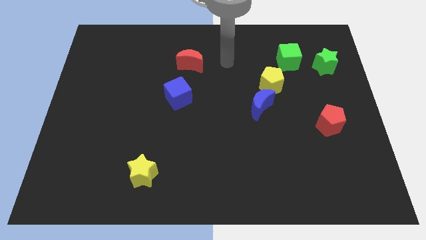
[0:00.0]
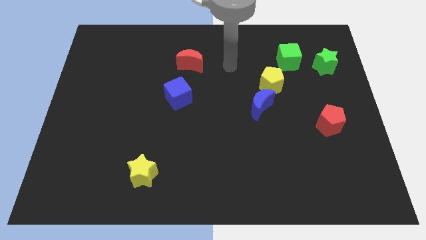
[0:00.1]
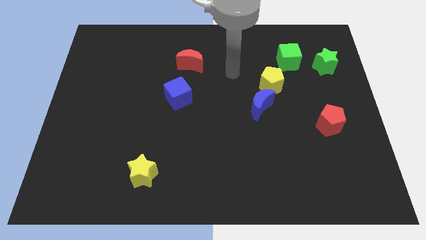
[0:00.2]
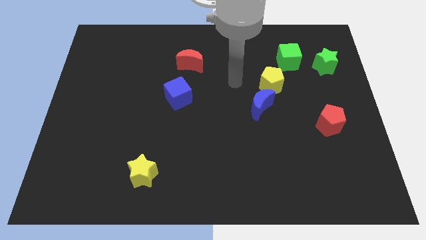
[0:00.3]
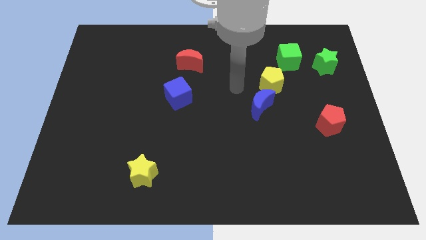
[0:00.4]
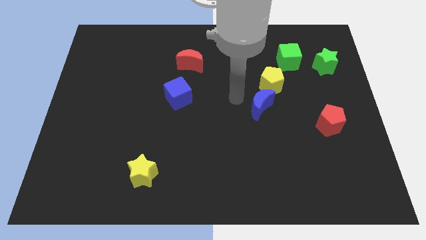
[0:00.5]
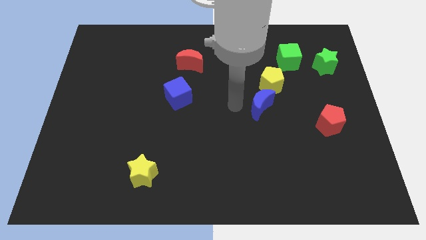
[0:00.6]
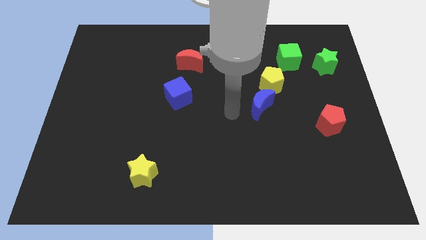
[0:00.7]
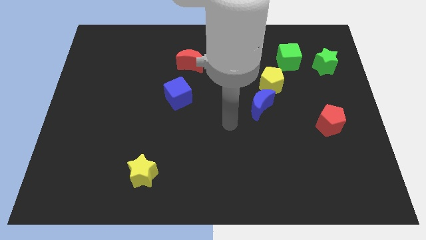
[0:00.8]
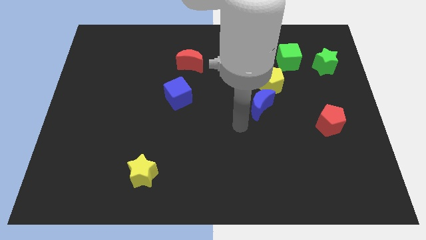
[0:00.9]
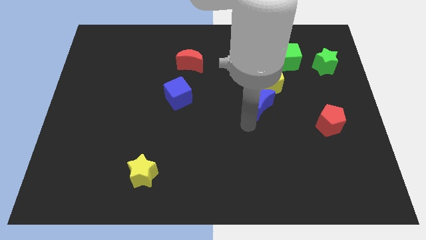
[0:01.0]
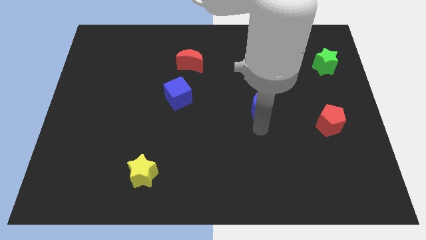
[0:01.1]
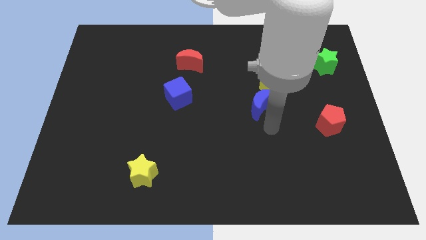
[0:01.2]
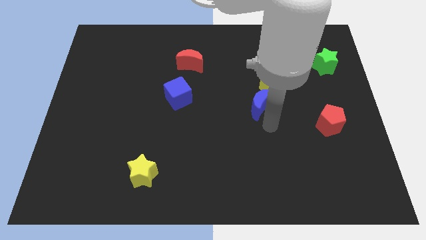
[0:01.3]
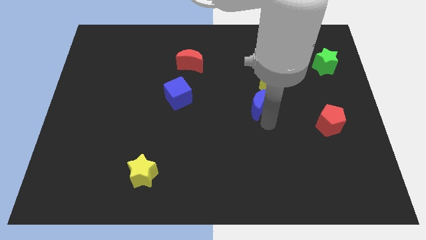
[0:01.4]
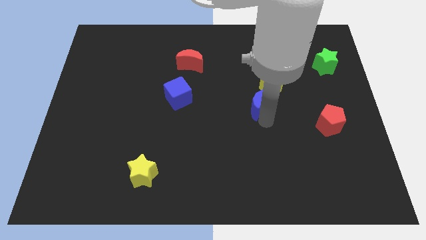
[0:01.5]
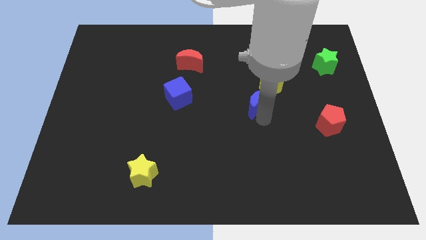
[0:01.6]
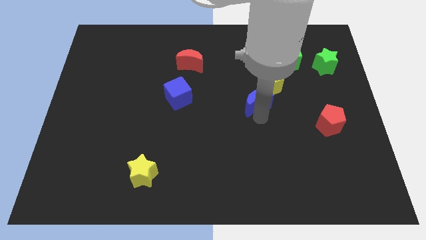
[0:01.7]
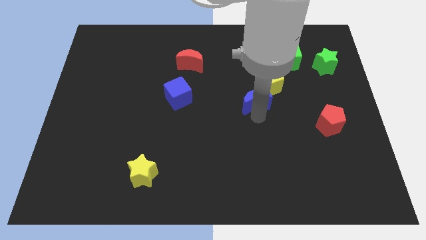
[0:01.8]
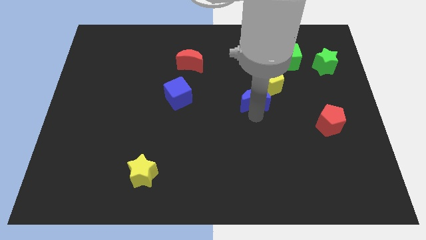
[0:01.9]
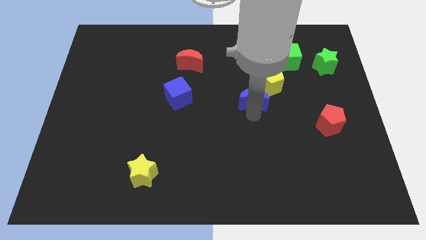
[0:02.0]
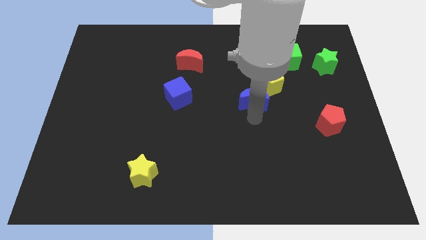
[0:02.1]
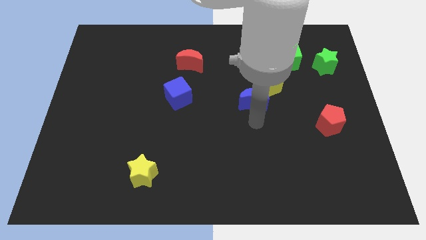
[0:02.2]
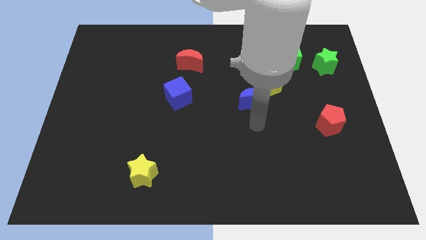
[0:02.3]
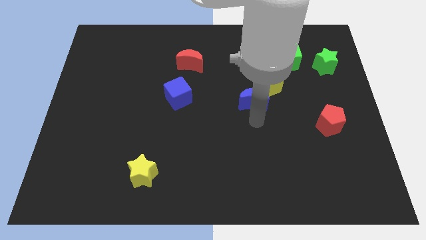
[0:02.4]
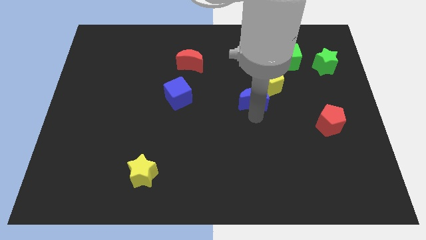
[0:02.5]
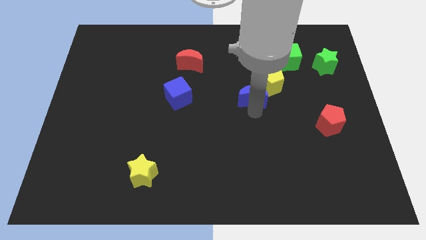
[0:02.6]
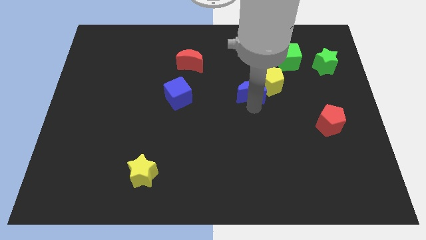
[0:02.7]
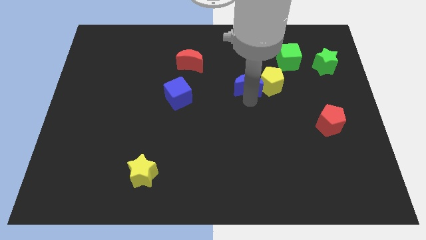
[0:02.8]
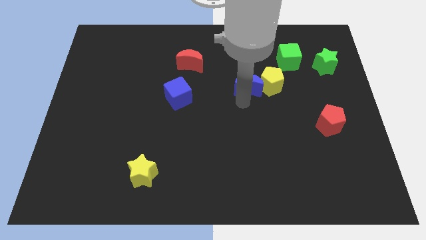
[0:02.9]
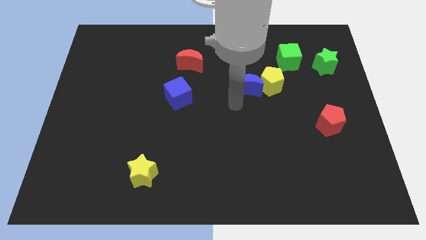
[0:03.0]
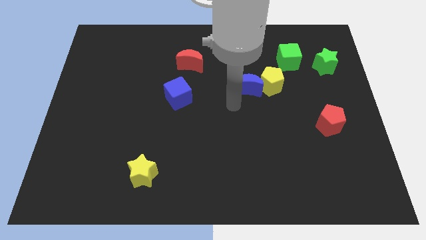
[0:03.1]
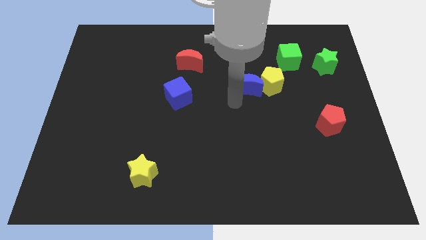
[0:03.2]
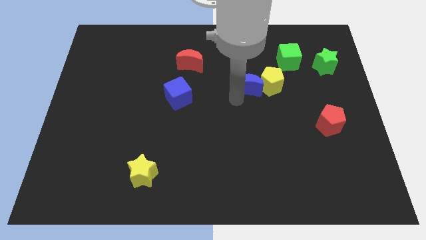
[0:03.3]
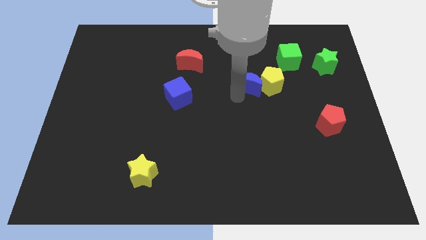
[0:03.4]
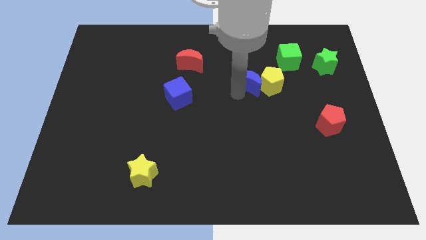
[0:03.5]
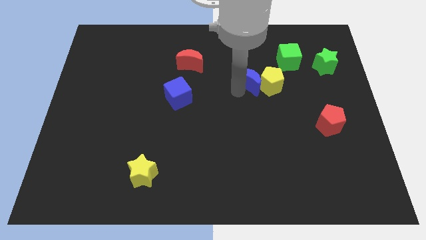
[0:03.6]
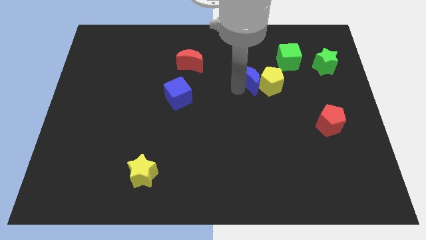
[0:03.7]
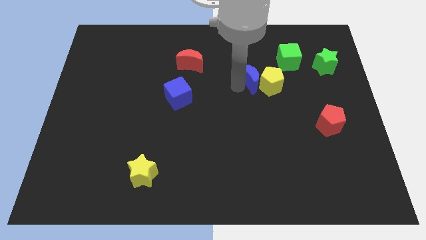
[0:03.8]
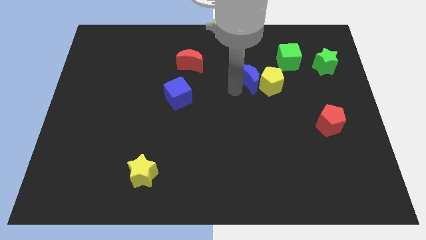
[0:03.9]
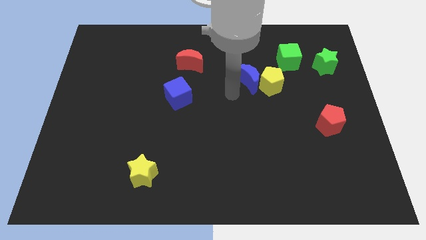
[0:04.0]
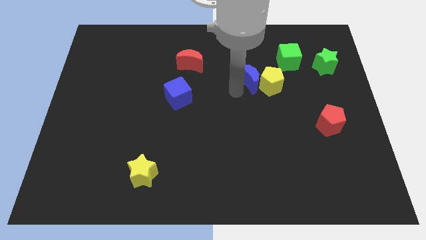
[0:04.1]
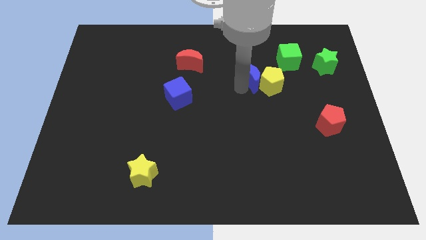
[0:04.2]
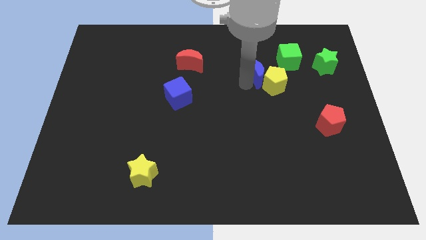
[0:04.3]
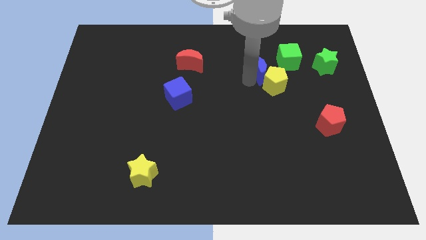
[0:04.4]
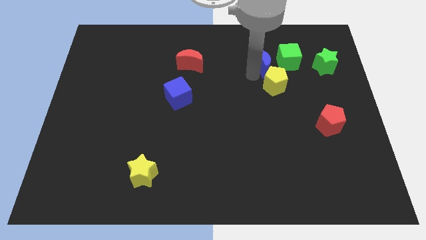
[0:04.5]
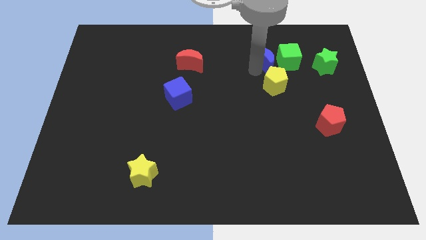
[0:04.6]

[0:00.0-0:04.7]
push the blue moon next to the green cube

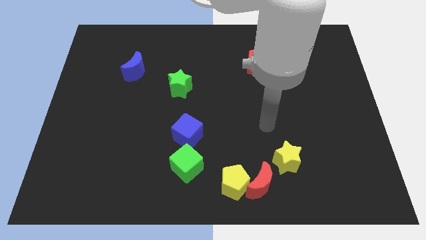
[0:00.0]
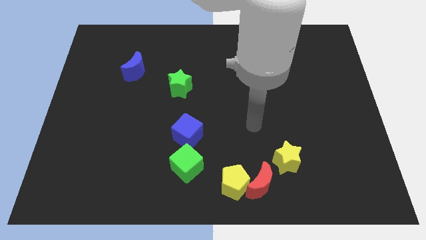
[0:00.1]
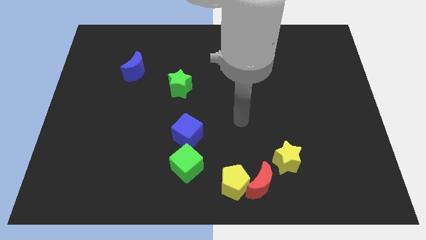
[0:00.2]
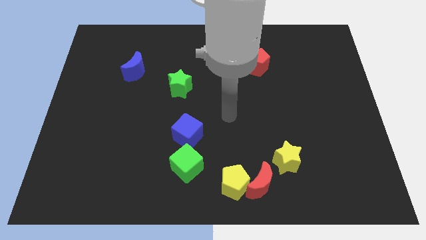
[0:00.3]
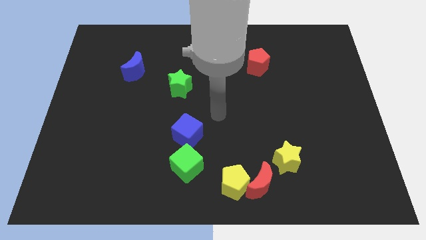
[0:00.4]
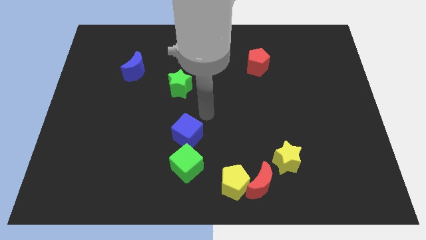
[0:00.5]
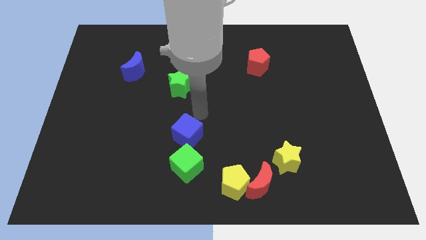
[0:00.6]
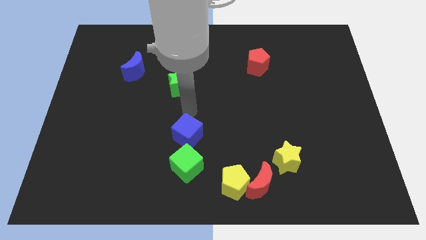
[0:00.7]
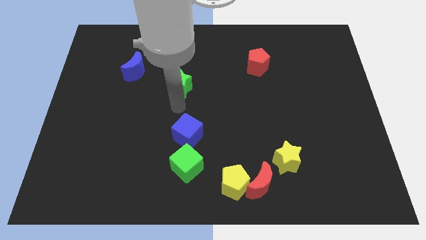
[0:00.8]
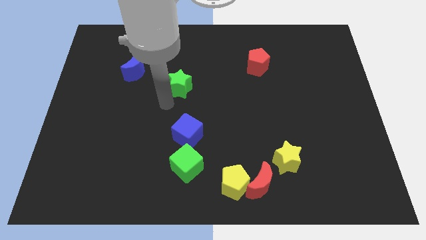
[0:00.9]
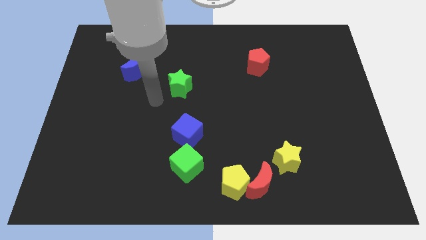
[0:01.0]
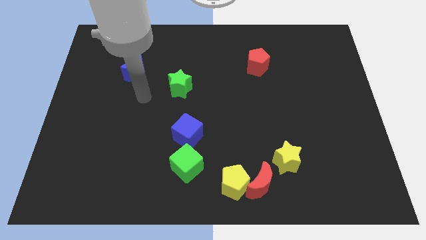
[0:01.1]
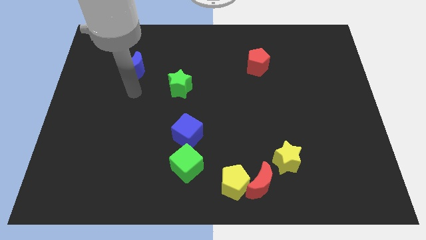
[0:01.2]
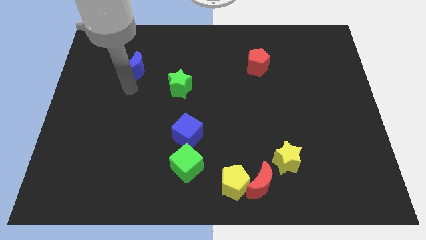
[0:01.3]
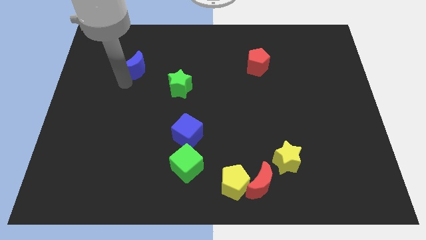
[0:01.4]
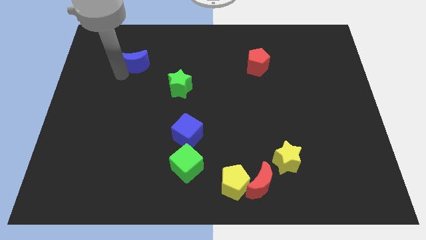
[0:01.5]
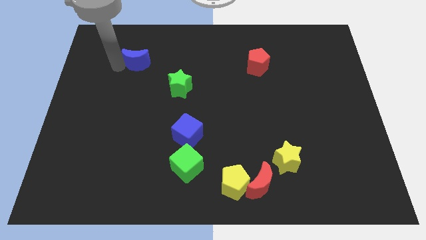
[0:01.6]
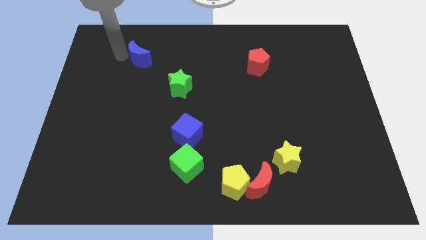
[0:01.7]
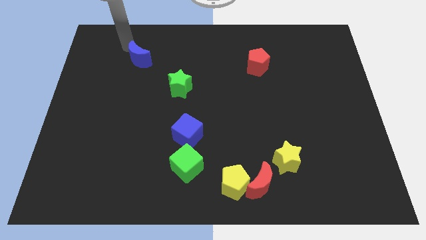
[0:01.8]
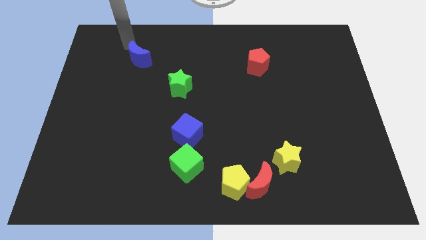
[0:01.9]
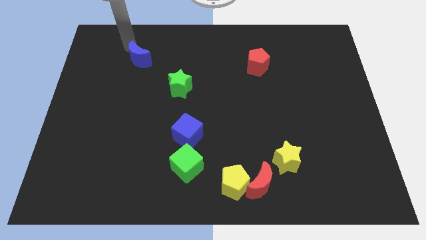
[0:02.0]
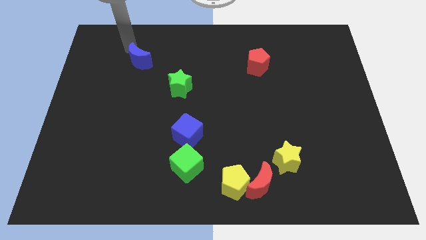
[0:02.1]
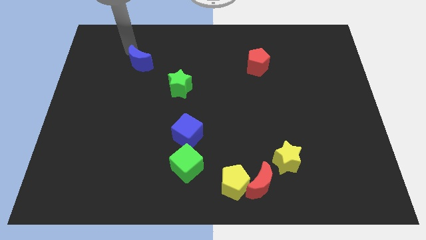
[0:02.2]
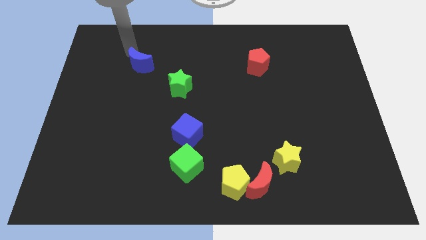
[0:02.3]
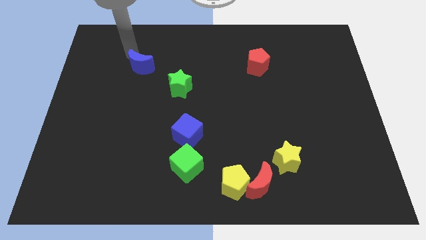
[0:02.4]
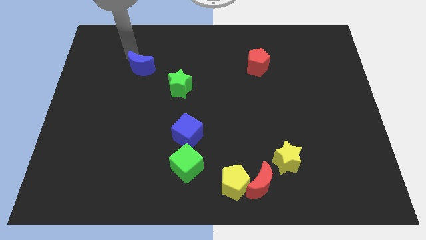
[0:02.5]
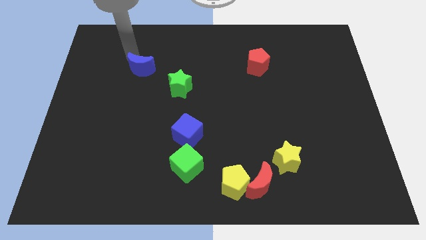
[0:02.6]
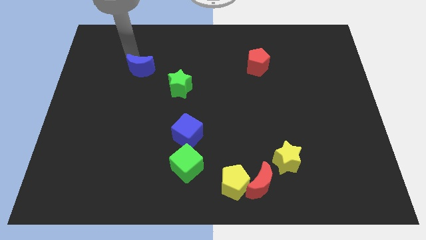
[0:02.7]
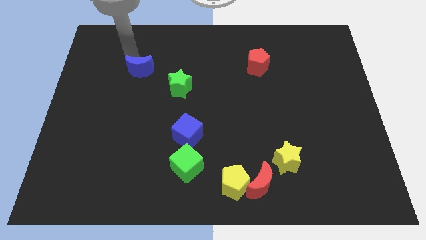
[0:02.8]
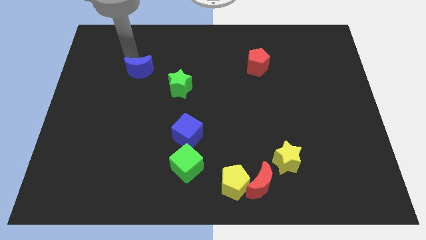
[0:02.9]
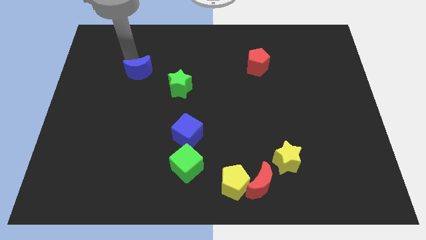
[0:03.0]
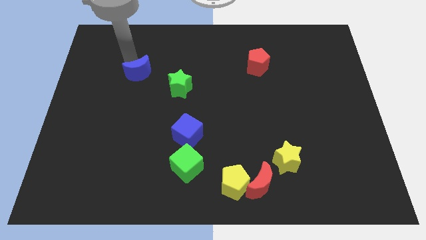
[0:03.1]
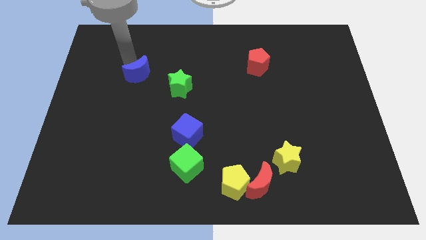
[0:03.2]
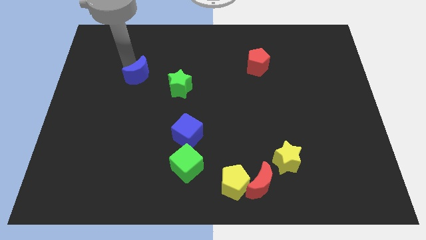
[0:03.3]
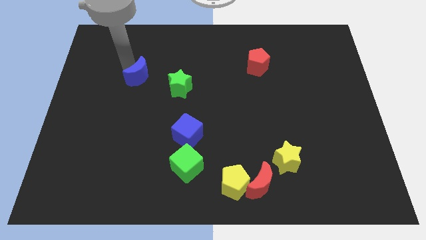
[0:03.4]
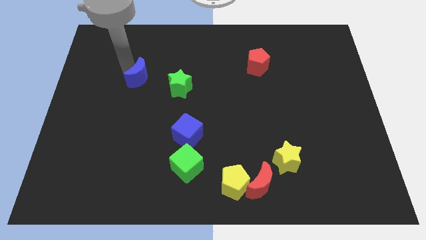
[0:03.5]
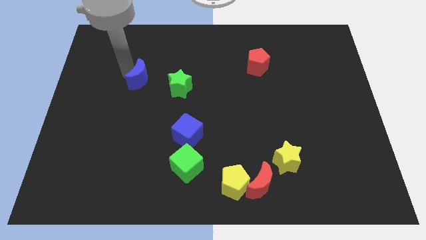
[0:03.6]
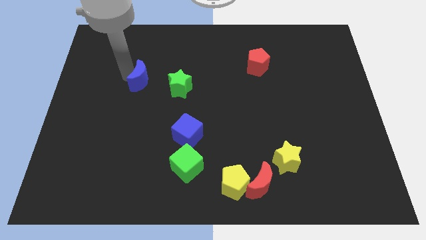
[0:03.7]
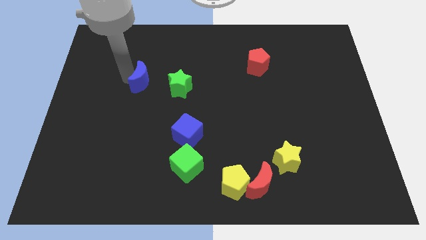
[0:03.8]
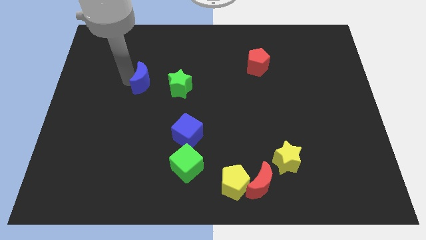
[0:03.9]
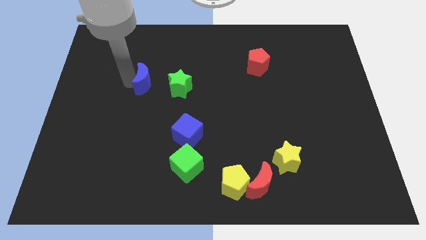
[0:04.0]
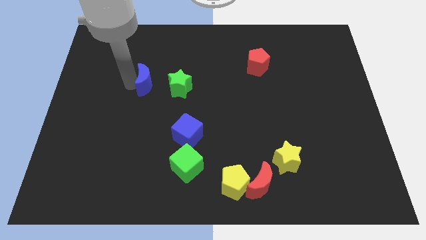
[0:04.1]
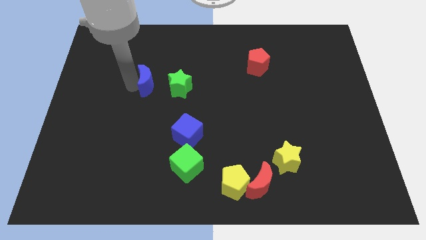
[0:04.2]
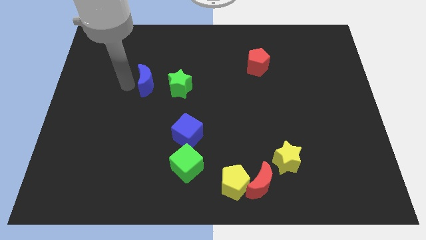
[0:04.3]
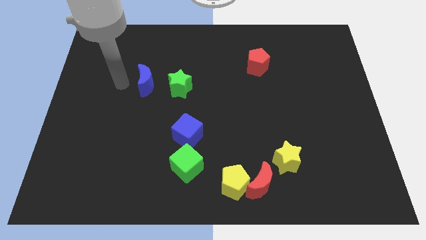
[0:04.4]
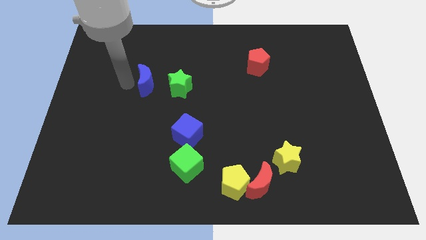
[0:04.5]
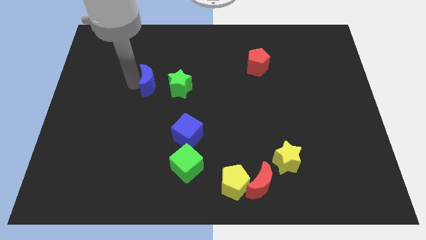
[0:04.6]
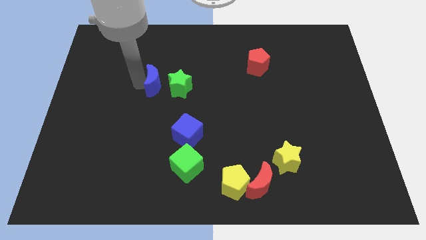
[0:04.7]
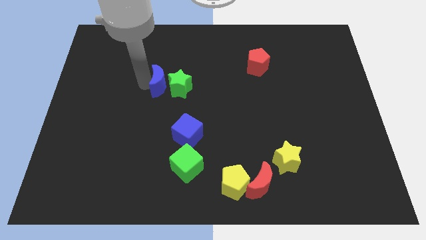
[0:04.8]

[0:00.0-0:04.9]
slide the blue moon towards the green star
